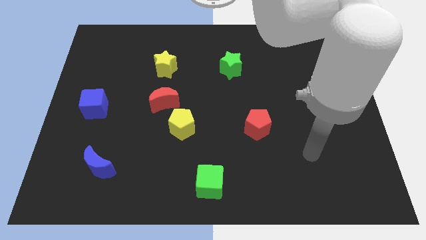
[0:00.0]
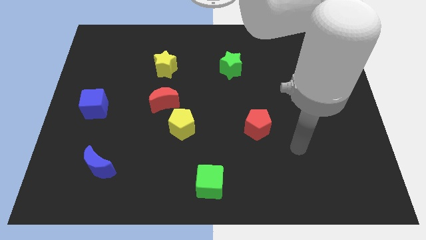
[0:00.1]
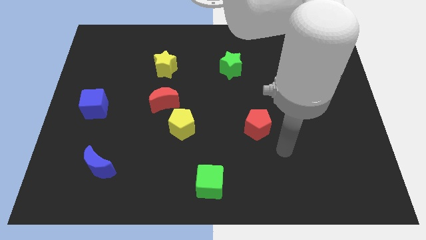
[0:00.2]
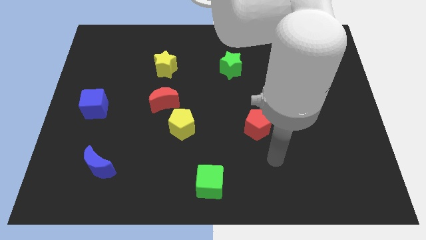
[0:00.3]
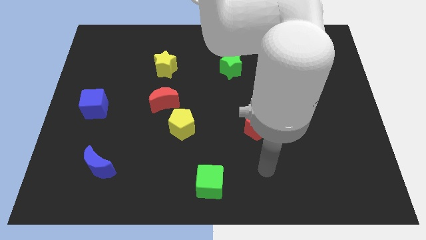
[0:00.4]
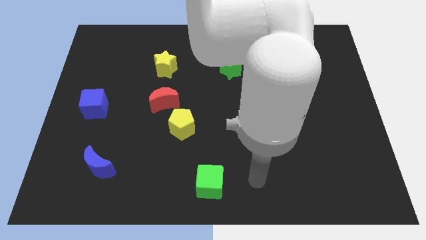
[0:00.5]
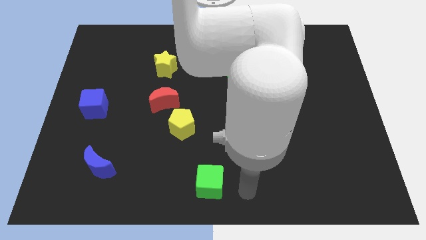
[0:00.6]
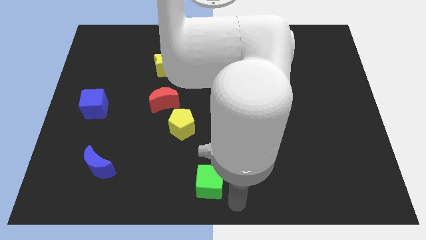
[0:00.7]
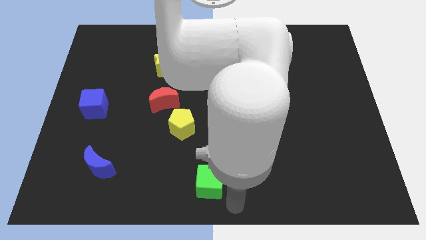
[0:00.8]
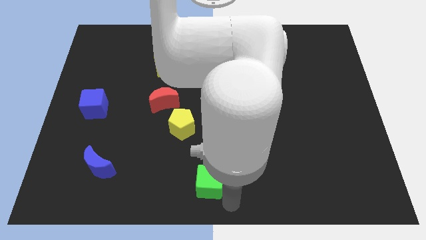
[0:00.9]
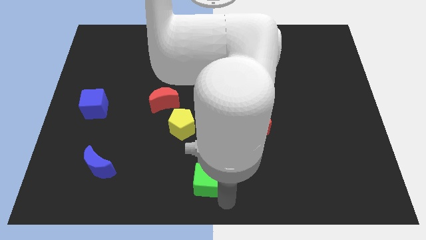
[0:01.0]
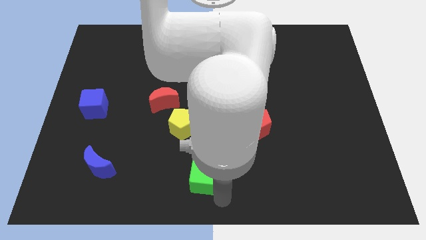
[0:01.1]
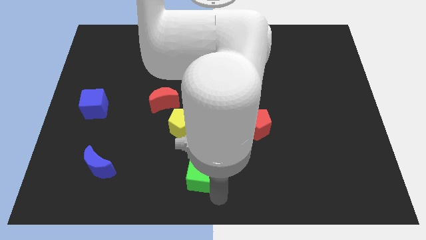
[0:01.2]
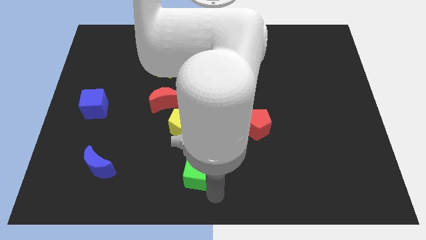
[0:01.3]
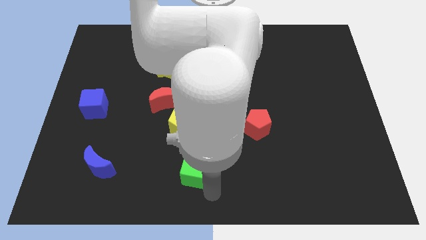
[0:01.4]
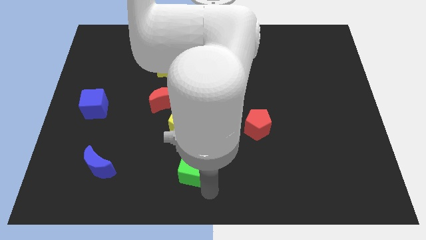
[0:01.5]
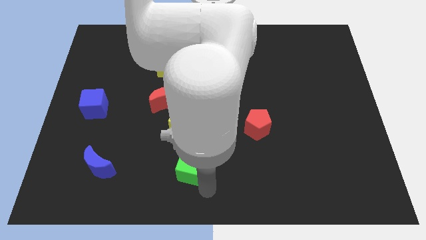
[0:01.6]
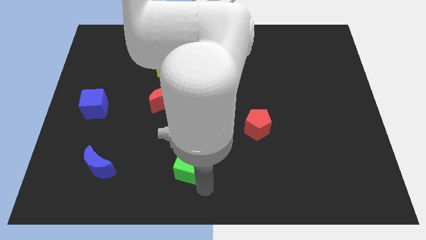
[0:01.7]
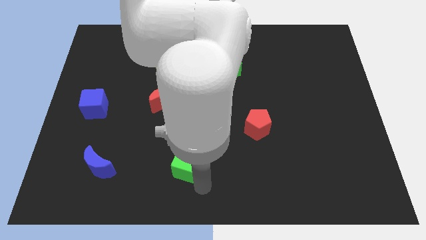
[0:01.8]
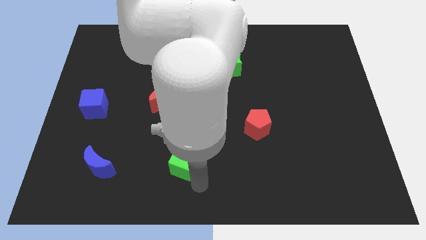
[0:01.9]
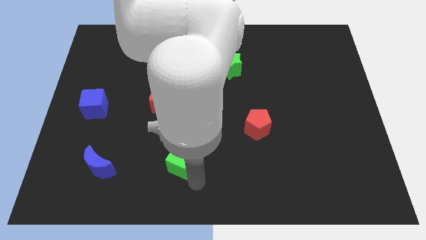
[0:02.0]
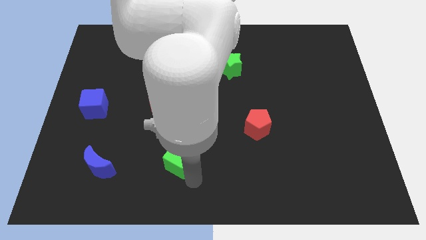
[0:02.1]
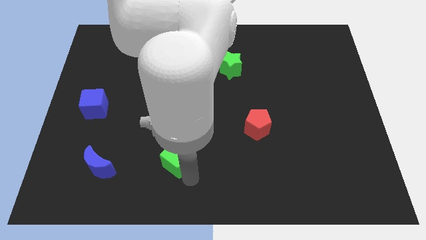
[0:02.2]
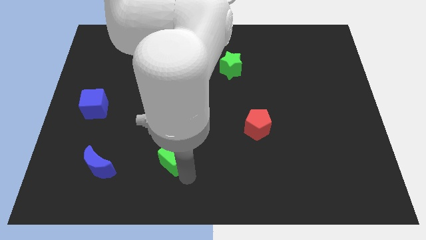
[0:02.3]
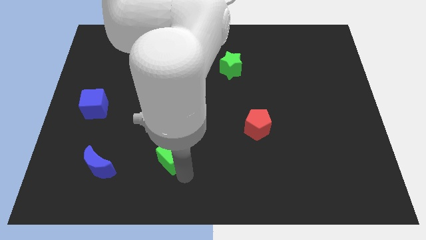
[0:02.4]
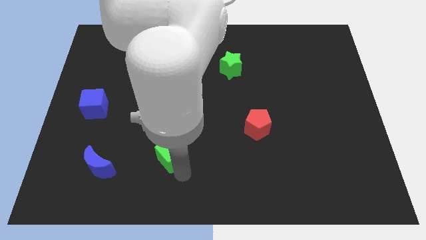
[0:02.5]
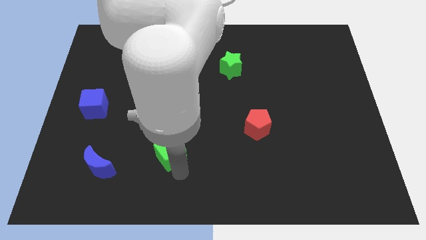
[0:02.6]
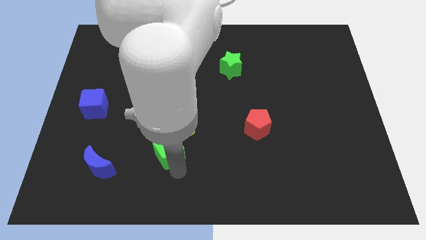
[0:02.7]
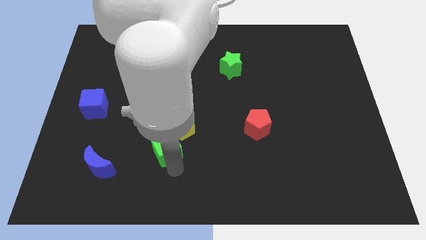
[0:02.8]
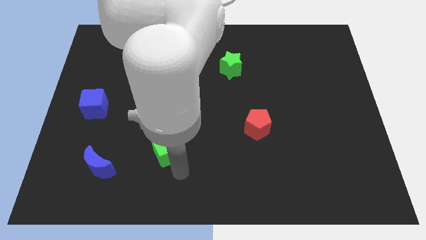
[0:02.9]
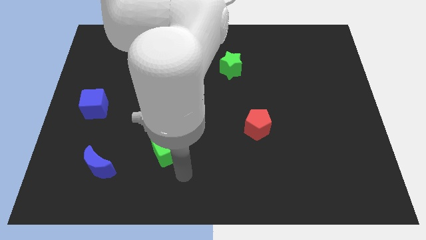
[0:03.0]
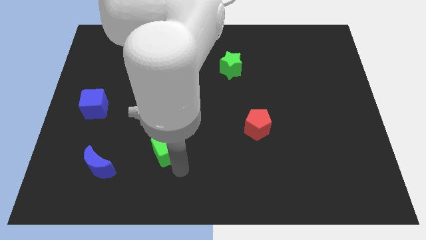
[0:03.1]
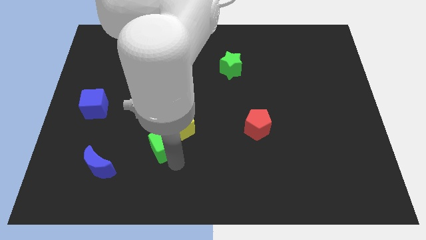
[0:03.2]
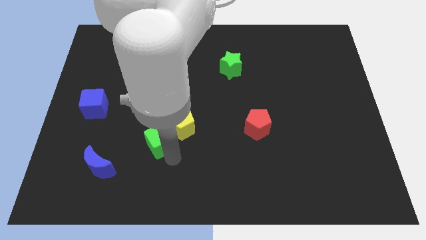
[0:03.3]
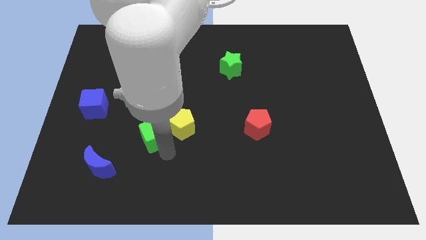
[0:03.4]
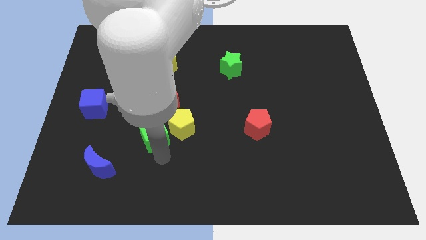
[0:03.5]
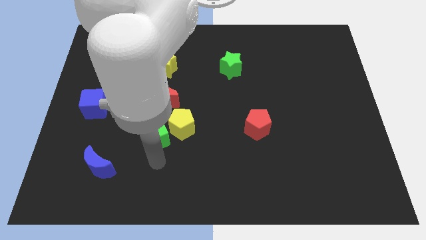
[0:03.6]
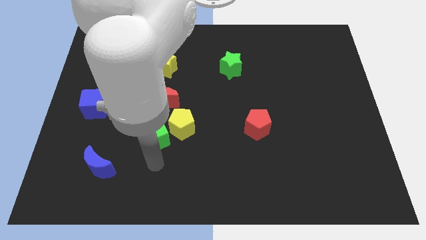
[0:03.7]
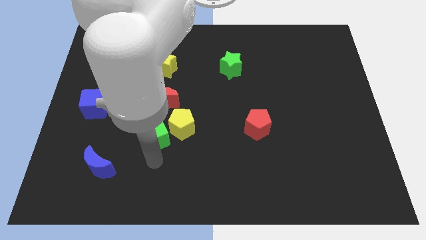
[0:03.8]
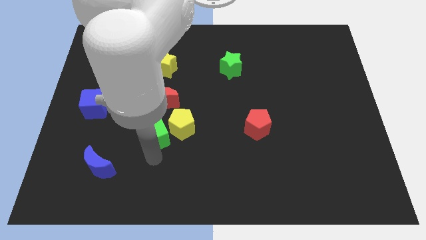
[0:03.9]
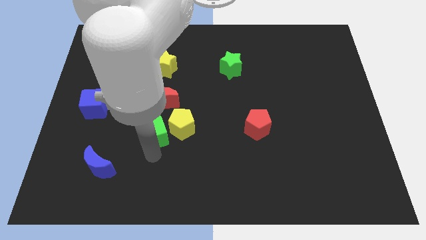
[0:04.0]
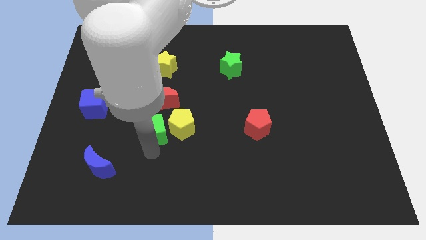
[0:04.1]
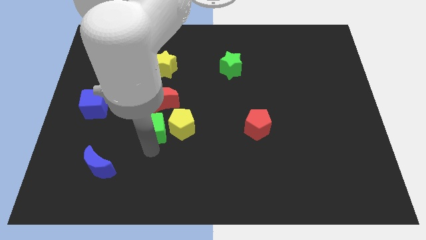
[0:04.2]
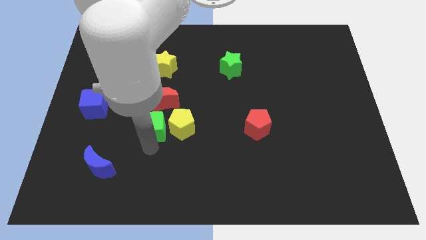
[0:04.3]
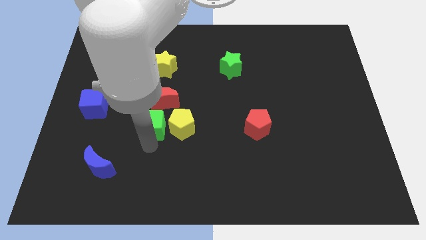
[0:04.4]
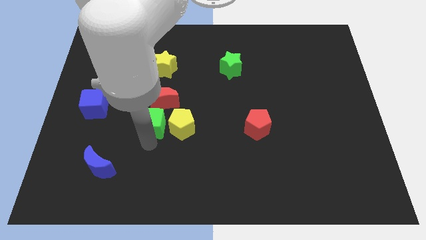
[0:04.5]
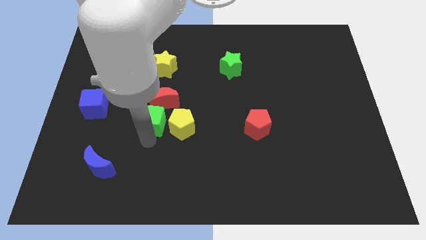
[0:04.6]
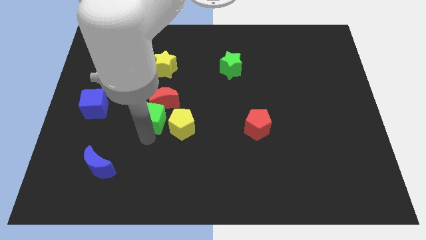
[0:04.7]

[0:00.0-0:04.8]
push the green cube close to the red moon

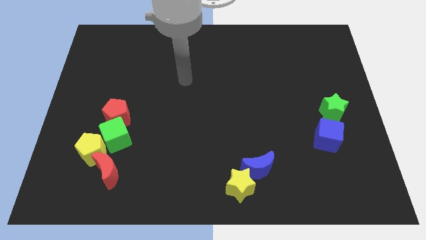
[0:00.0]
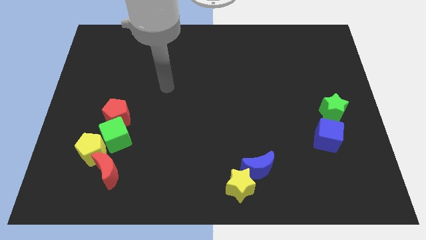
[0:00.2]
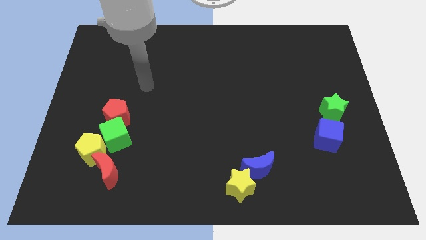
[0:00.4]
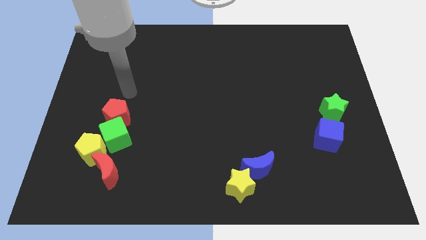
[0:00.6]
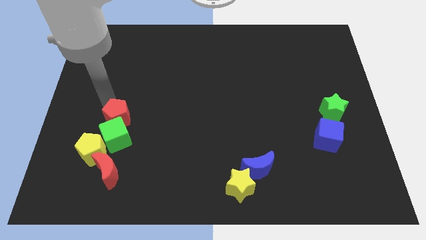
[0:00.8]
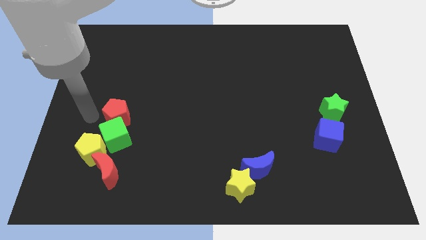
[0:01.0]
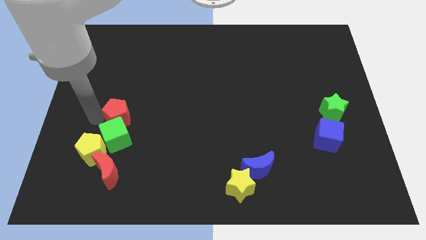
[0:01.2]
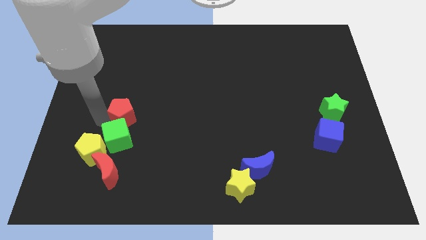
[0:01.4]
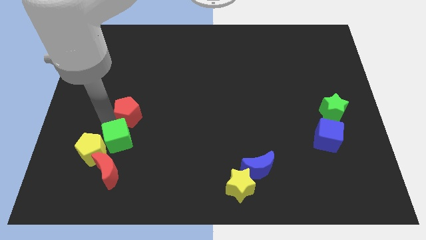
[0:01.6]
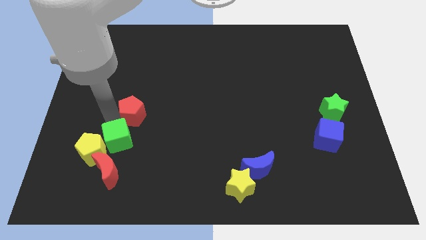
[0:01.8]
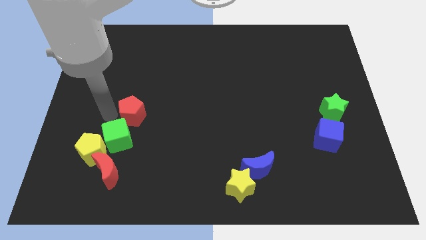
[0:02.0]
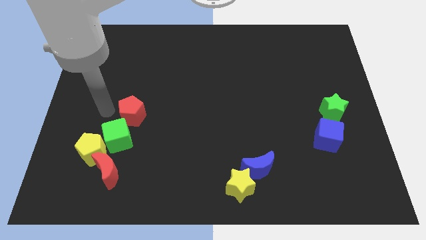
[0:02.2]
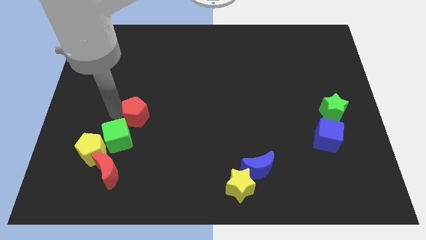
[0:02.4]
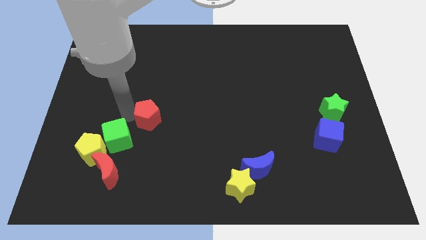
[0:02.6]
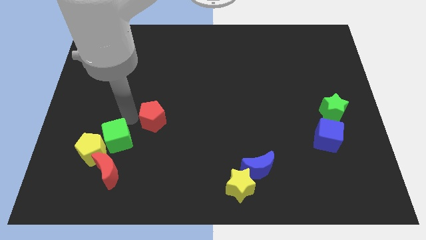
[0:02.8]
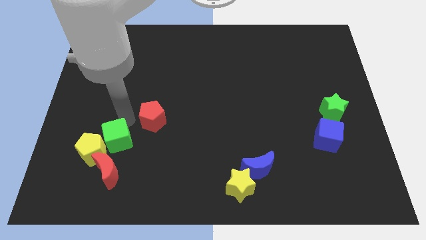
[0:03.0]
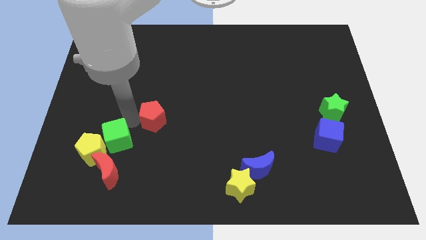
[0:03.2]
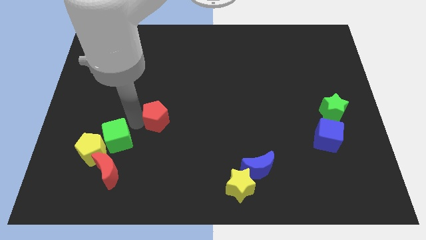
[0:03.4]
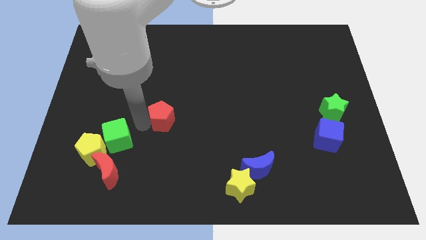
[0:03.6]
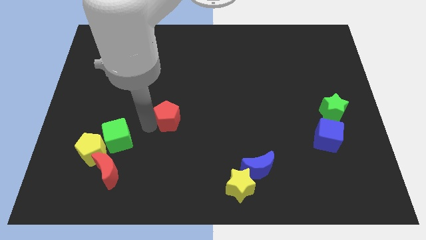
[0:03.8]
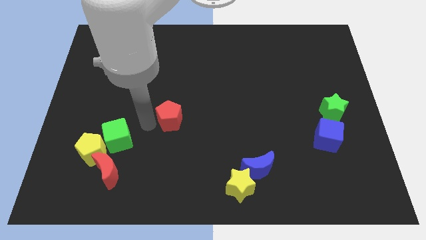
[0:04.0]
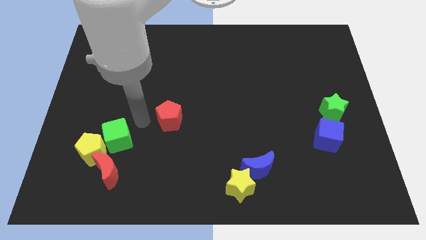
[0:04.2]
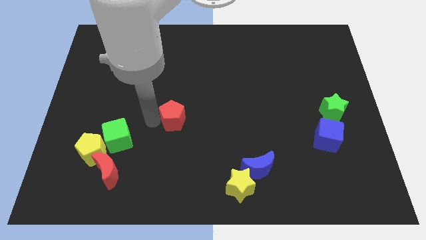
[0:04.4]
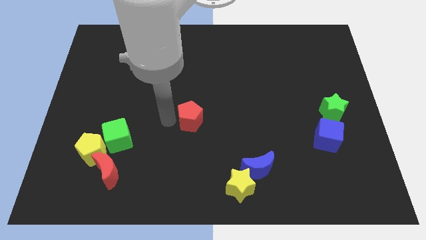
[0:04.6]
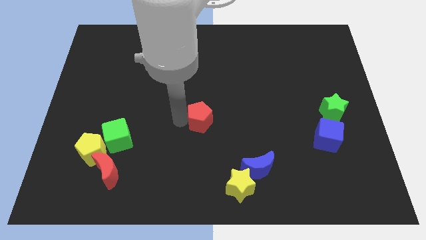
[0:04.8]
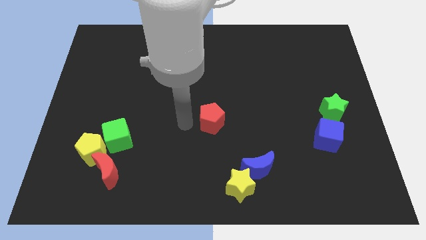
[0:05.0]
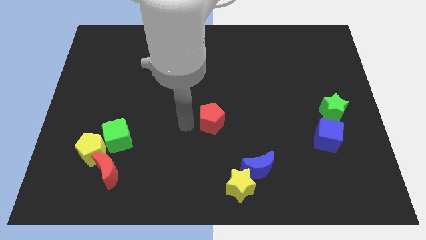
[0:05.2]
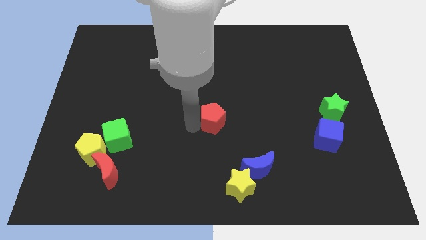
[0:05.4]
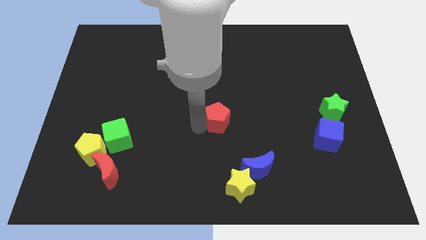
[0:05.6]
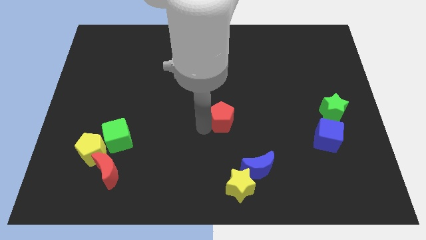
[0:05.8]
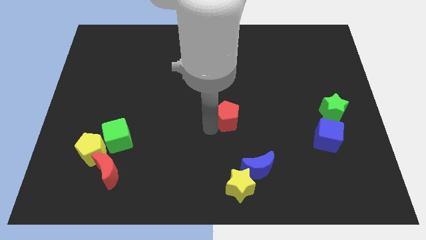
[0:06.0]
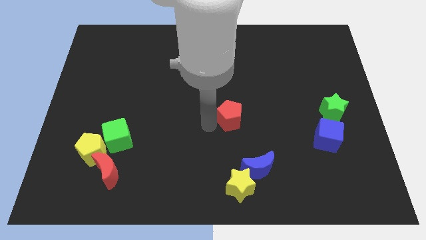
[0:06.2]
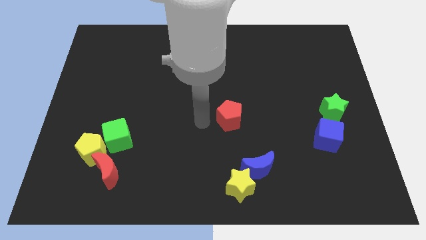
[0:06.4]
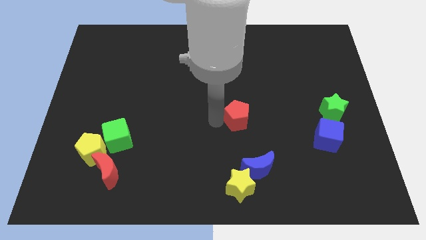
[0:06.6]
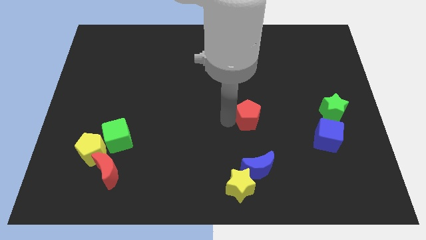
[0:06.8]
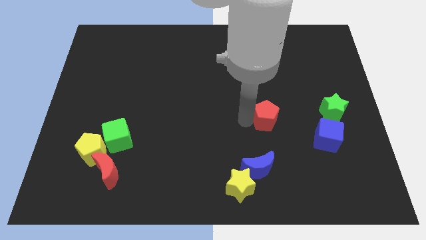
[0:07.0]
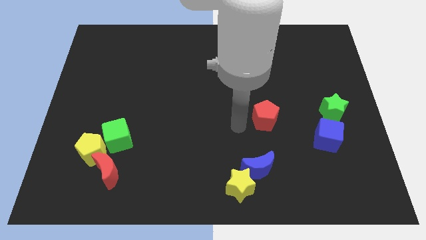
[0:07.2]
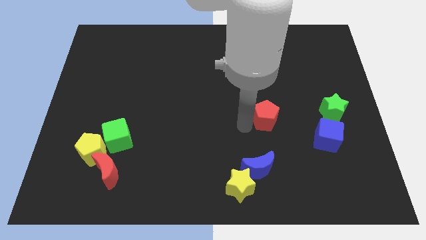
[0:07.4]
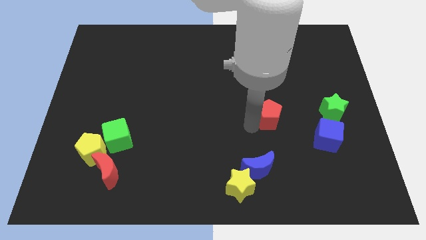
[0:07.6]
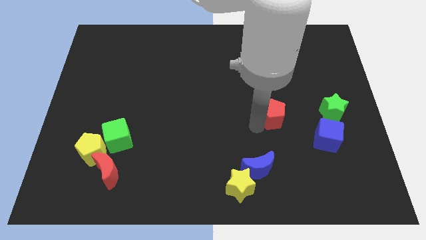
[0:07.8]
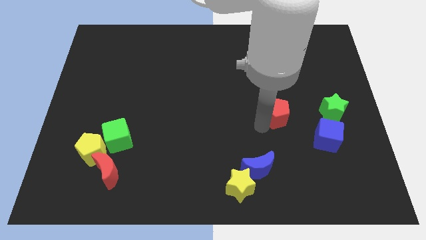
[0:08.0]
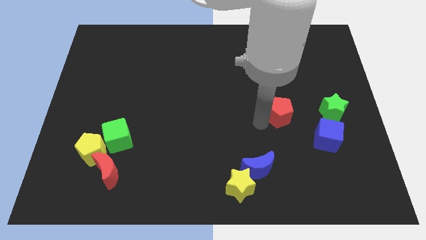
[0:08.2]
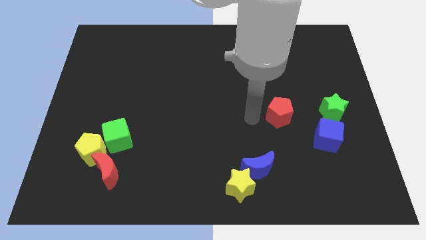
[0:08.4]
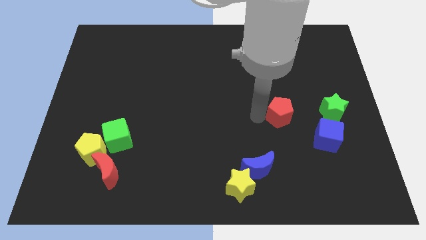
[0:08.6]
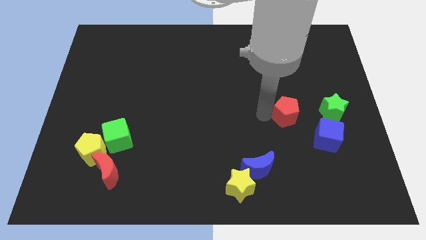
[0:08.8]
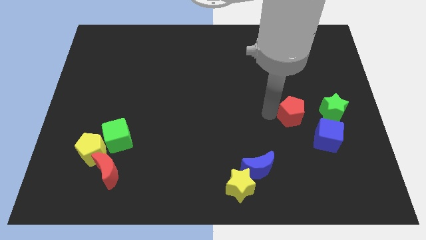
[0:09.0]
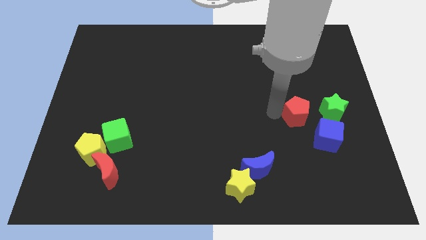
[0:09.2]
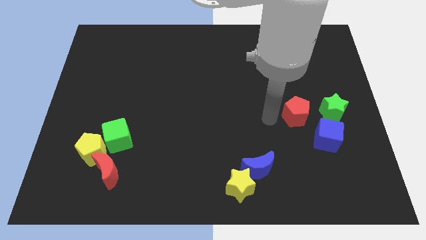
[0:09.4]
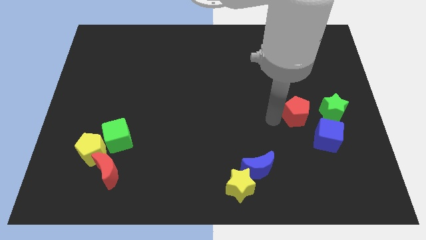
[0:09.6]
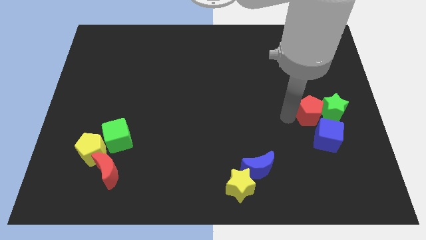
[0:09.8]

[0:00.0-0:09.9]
slide the red pentagon towards the green star
